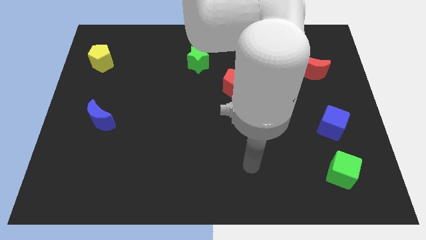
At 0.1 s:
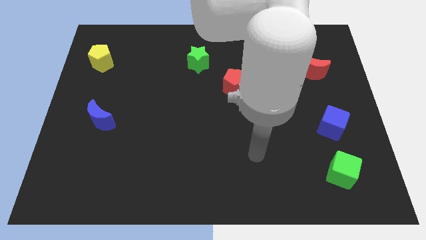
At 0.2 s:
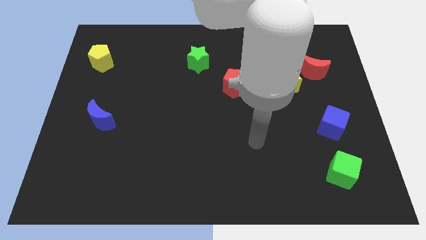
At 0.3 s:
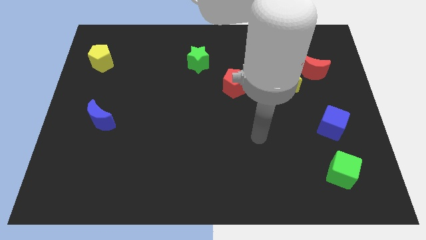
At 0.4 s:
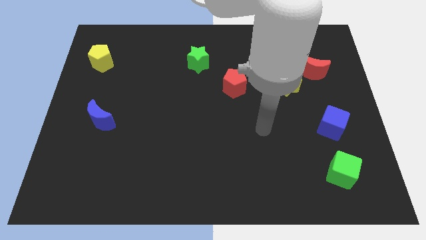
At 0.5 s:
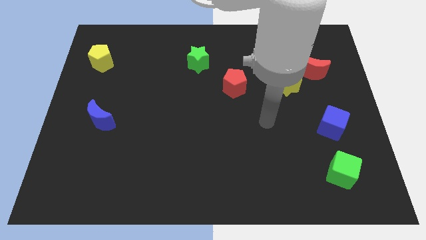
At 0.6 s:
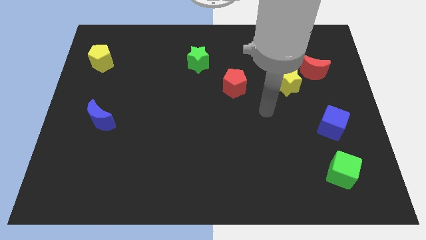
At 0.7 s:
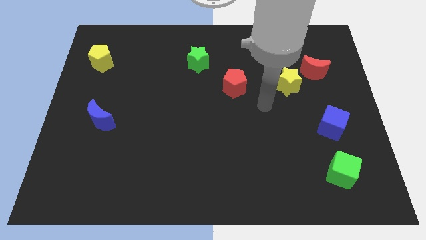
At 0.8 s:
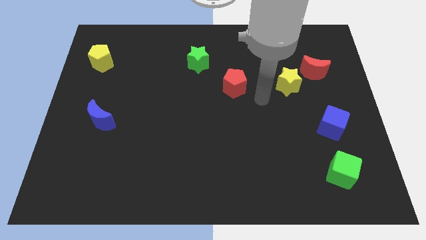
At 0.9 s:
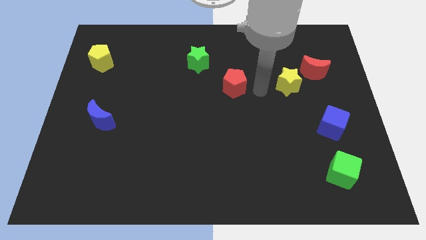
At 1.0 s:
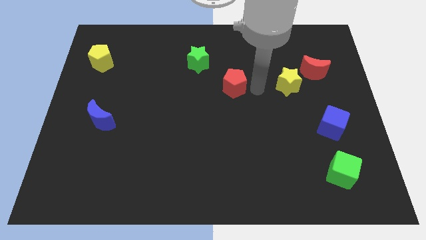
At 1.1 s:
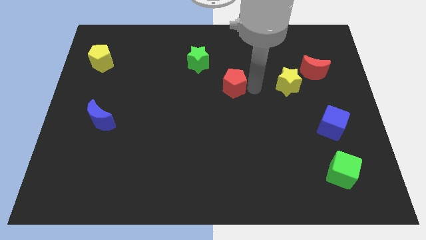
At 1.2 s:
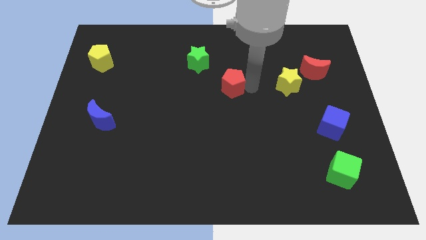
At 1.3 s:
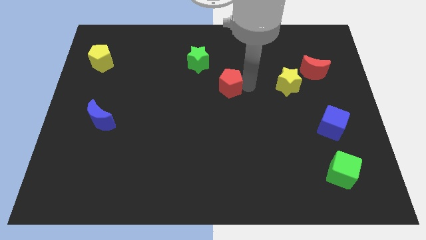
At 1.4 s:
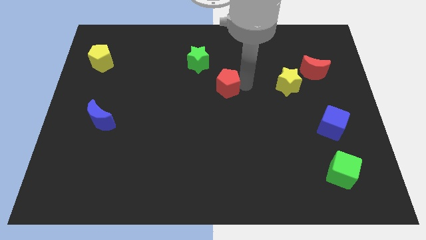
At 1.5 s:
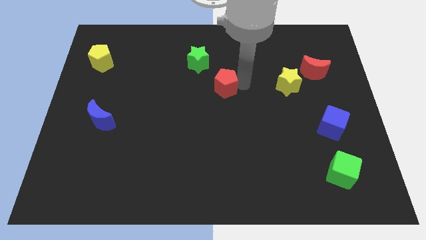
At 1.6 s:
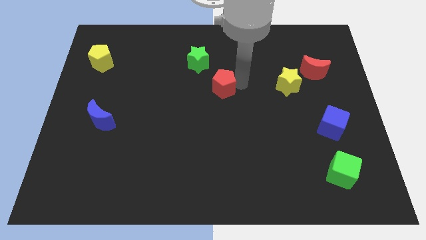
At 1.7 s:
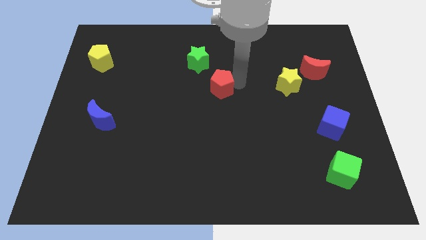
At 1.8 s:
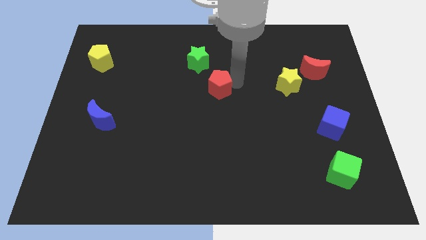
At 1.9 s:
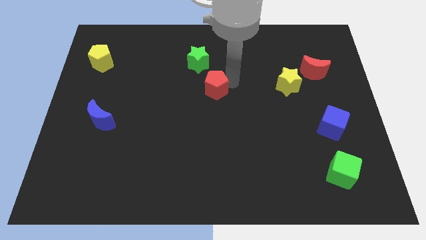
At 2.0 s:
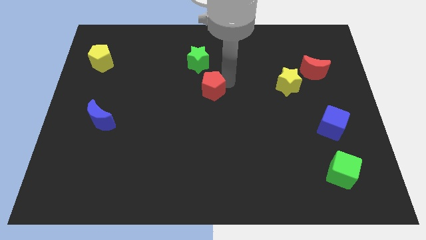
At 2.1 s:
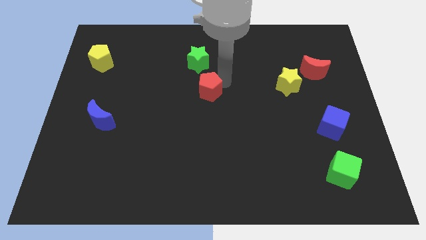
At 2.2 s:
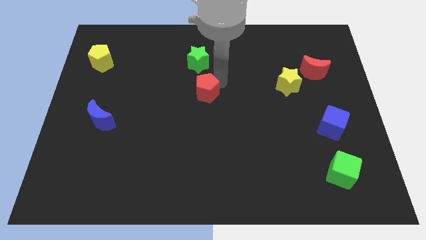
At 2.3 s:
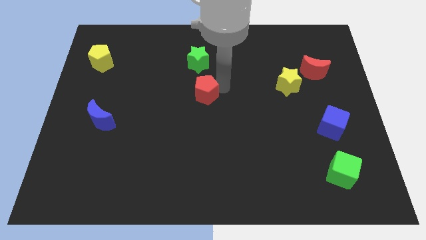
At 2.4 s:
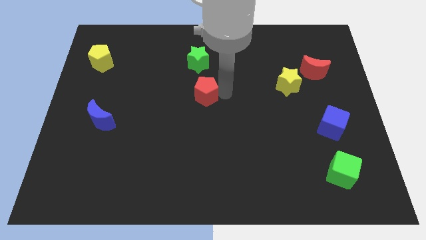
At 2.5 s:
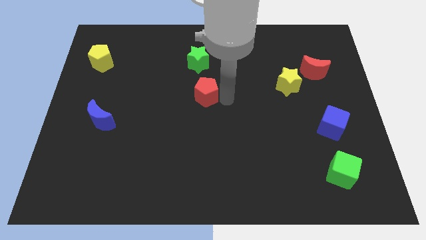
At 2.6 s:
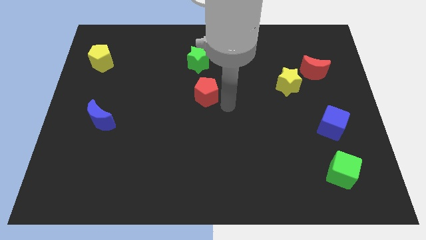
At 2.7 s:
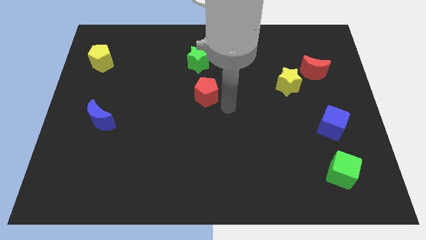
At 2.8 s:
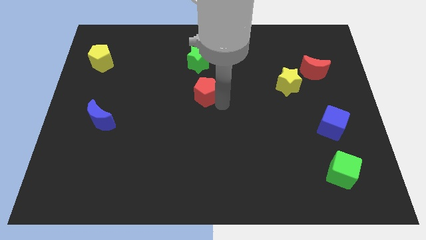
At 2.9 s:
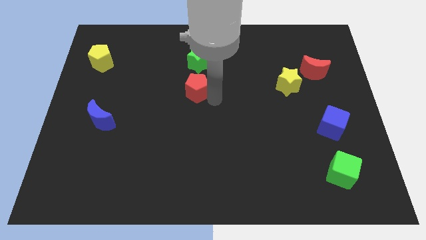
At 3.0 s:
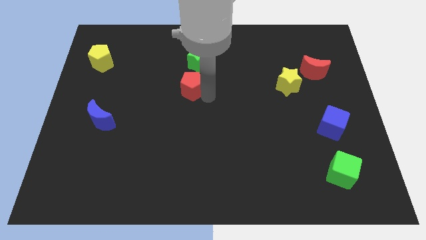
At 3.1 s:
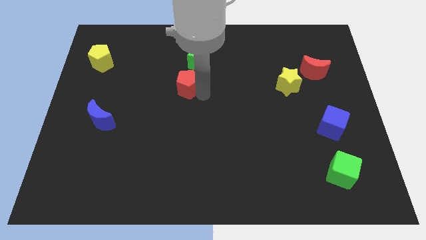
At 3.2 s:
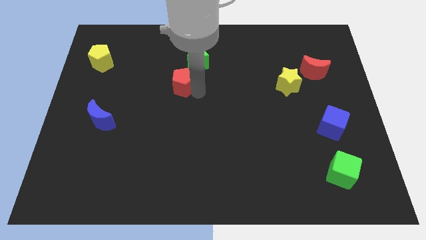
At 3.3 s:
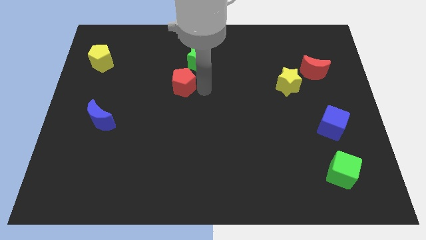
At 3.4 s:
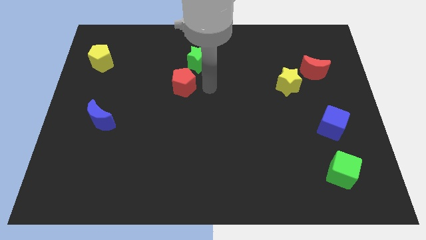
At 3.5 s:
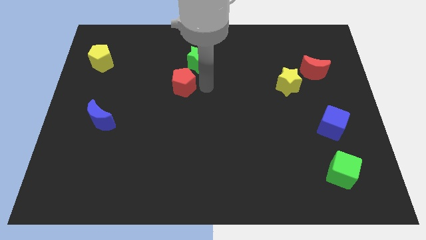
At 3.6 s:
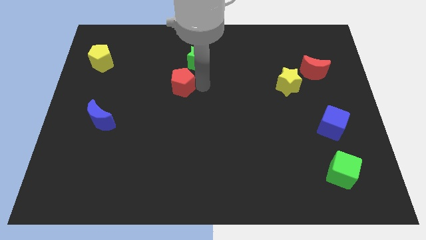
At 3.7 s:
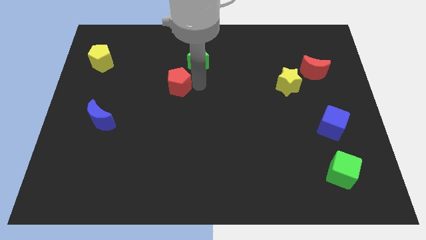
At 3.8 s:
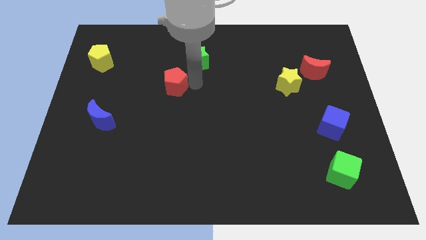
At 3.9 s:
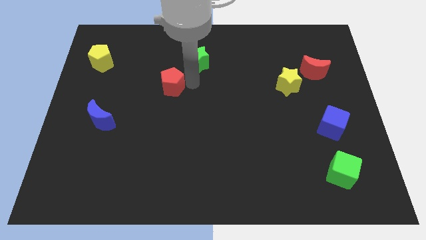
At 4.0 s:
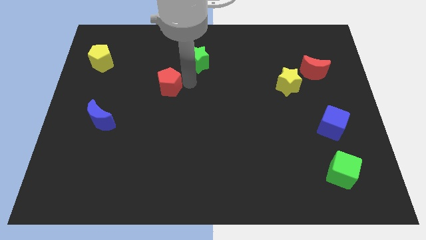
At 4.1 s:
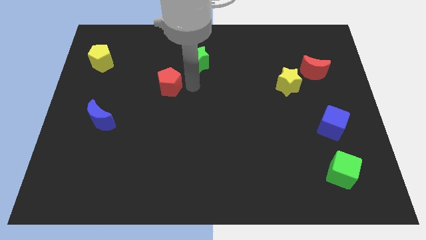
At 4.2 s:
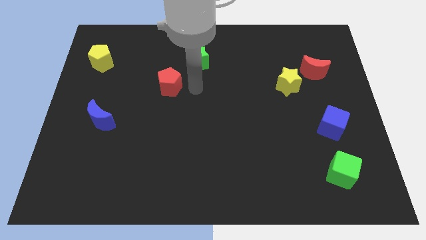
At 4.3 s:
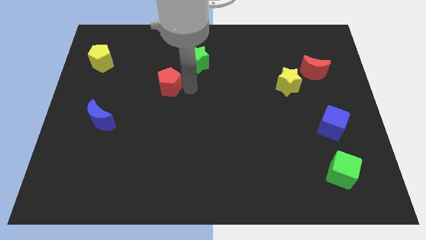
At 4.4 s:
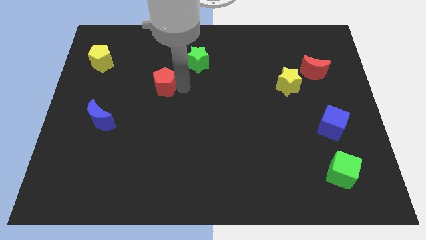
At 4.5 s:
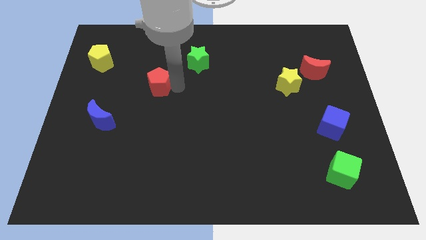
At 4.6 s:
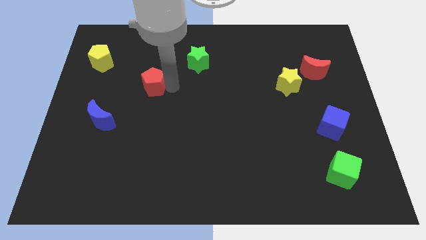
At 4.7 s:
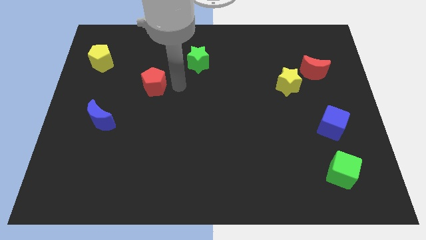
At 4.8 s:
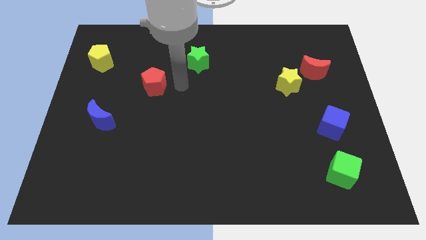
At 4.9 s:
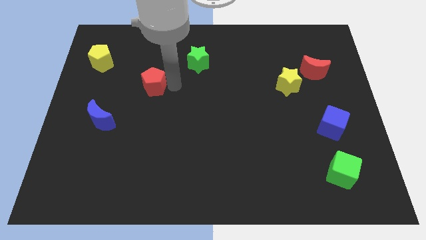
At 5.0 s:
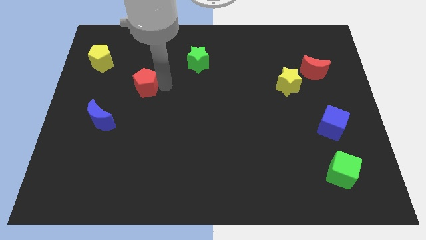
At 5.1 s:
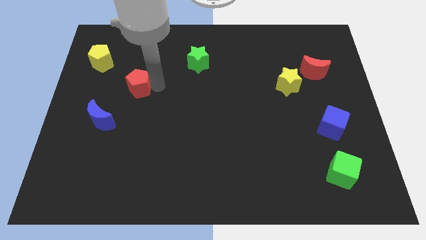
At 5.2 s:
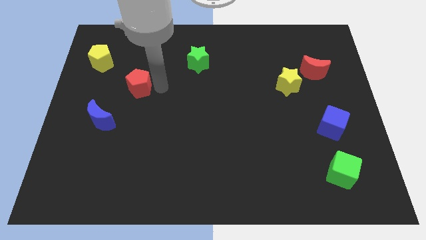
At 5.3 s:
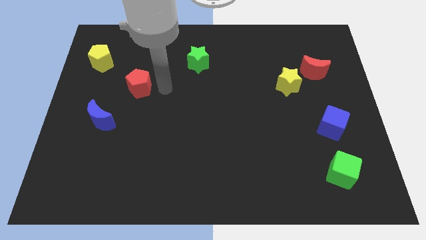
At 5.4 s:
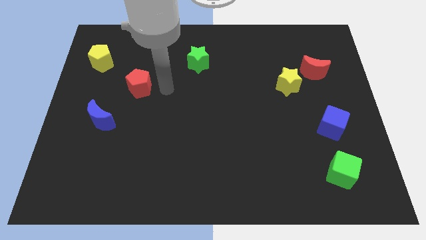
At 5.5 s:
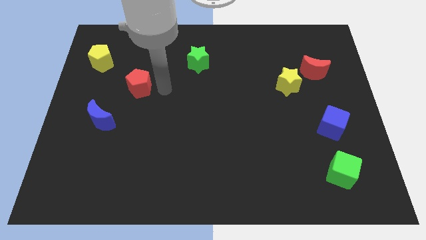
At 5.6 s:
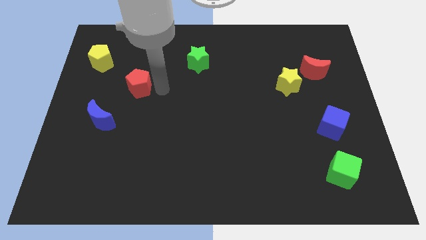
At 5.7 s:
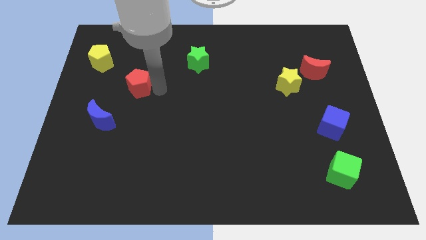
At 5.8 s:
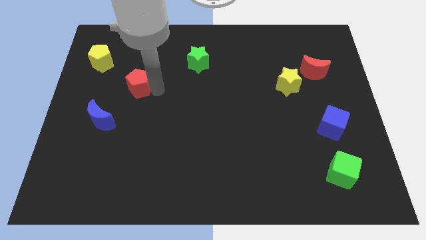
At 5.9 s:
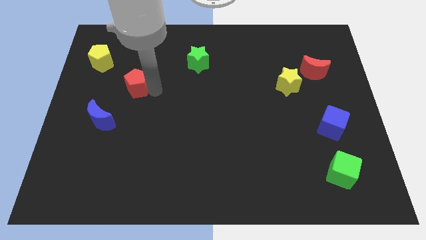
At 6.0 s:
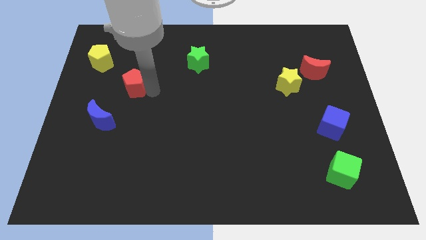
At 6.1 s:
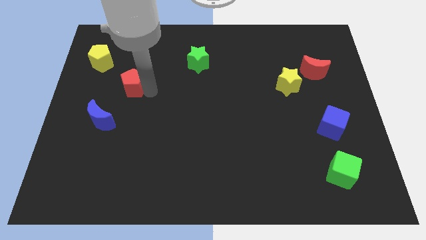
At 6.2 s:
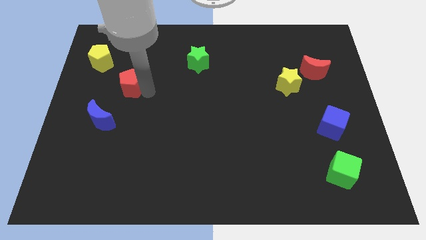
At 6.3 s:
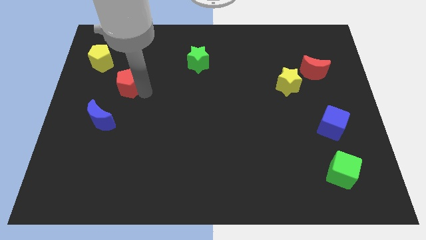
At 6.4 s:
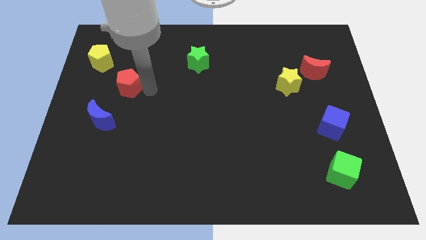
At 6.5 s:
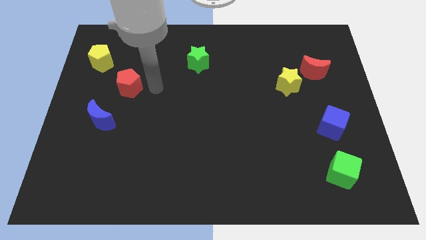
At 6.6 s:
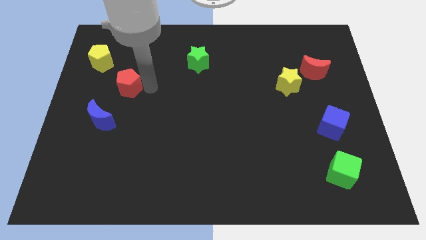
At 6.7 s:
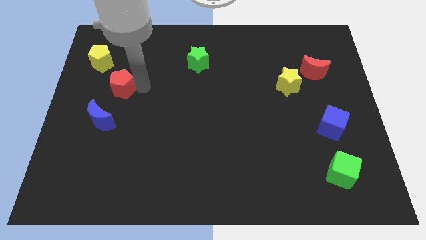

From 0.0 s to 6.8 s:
slide the red pentagon to the top of the blue moon
